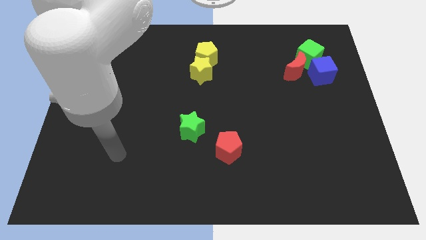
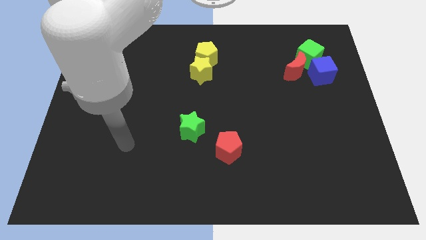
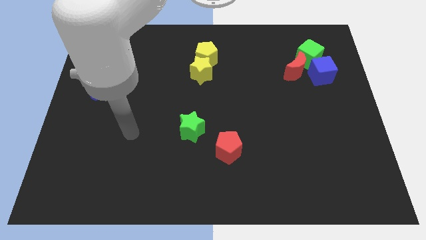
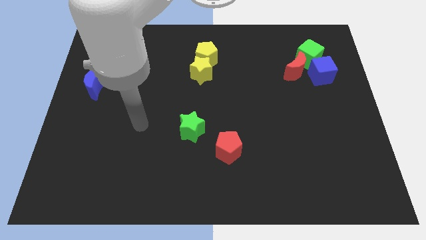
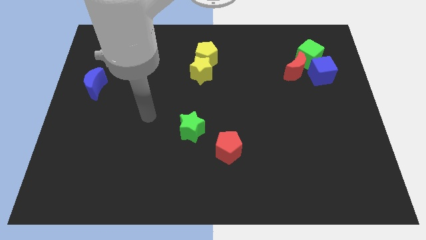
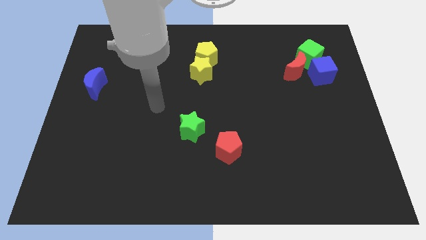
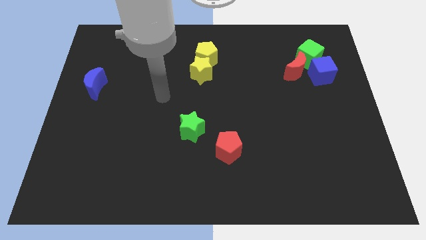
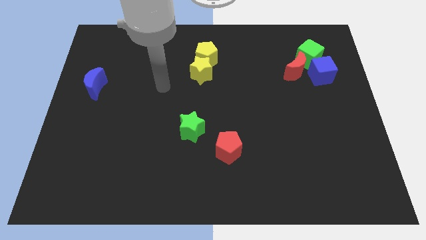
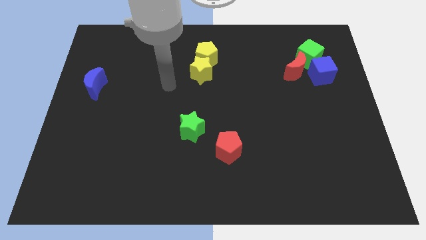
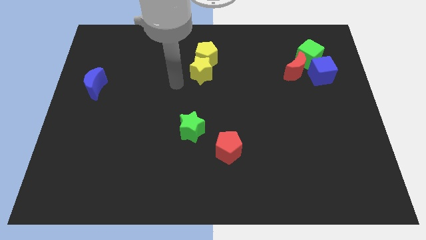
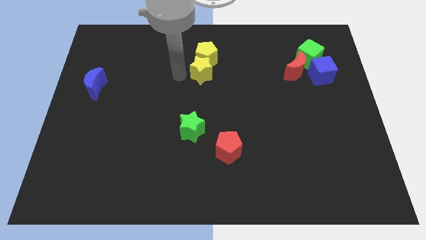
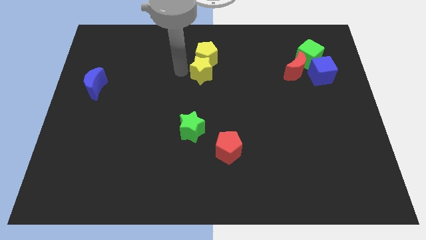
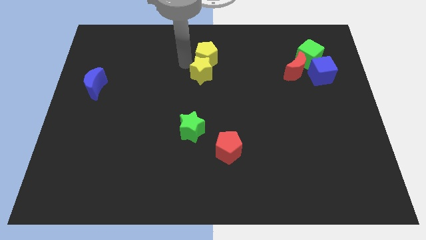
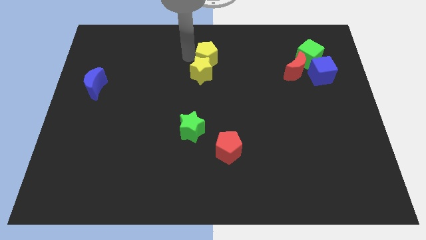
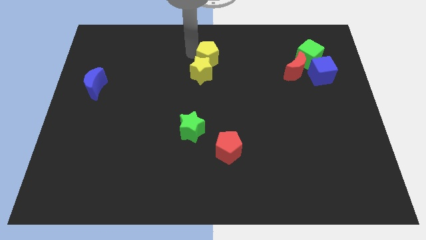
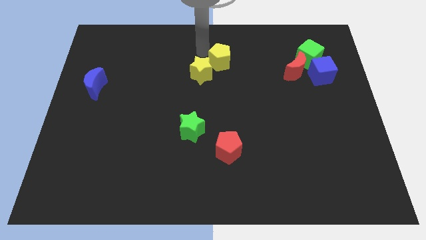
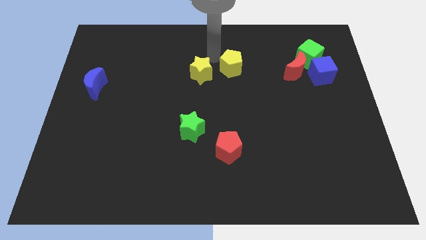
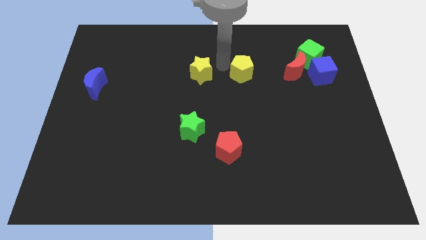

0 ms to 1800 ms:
separate the yellow star from the yellow pentagon

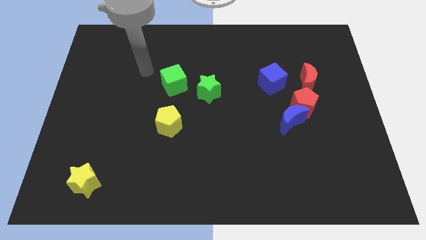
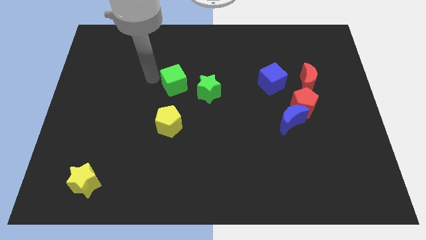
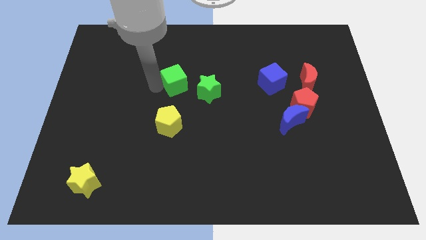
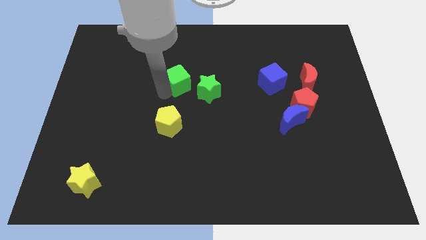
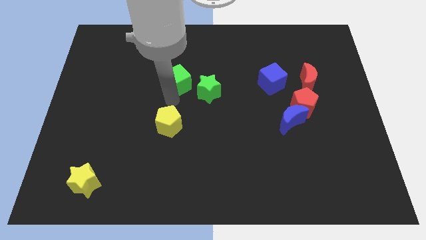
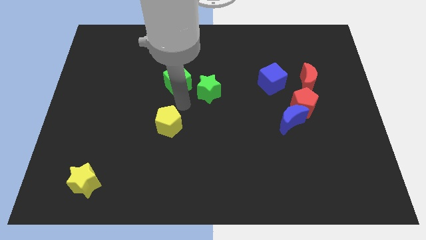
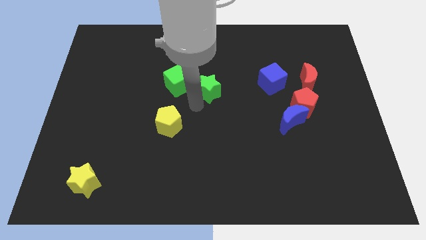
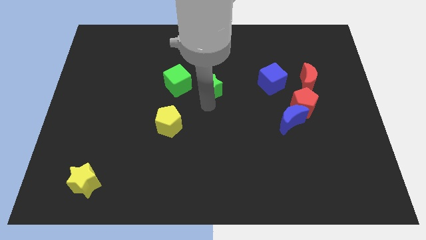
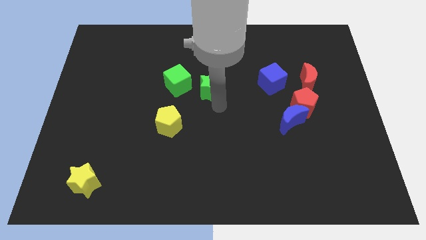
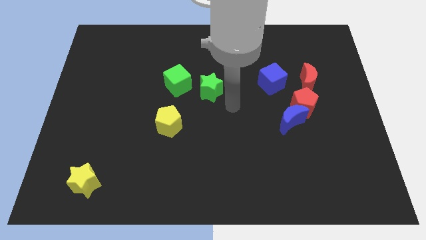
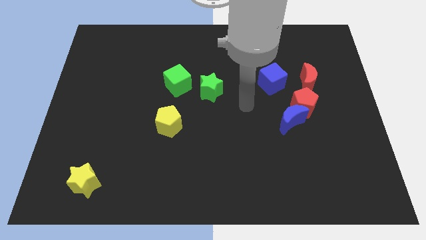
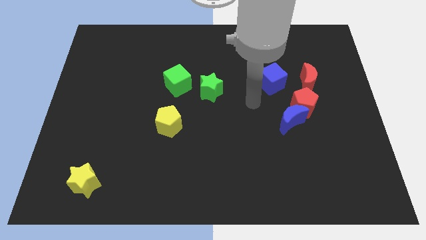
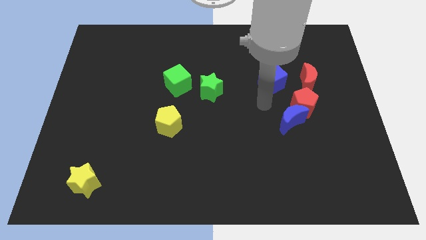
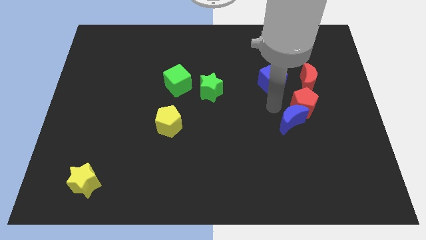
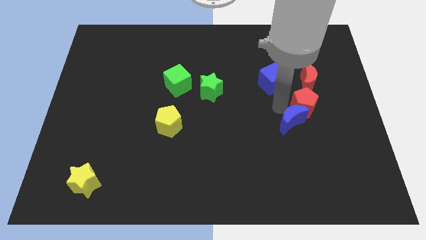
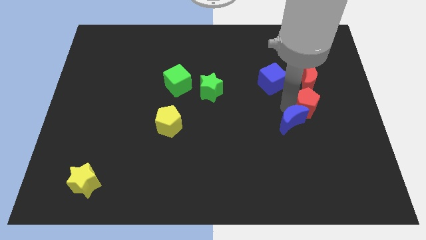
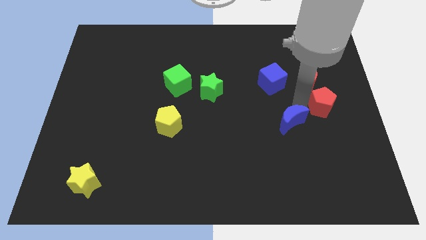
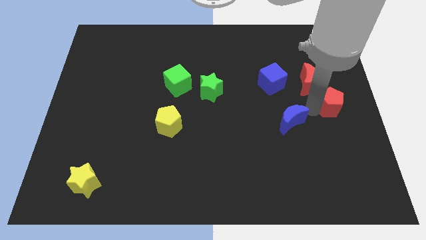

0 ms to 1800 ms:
move the blue moon away from the red pentagon

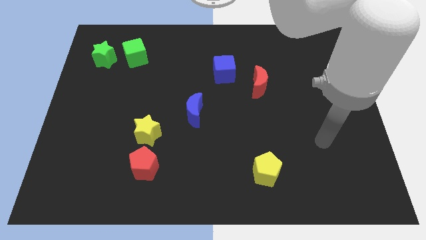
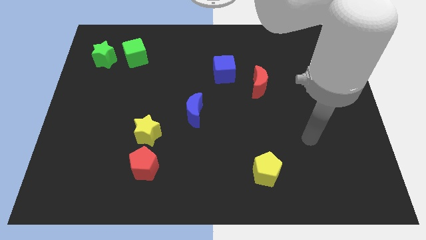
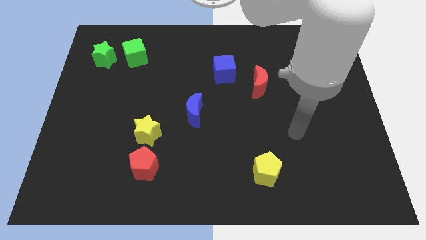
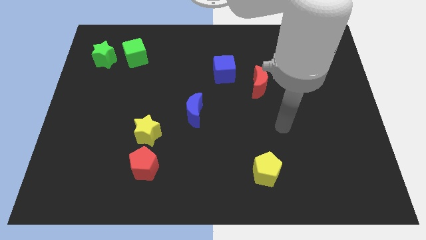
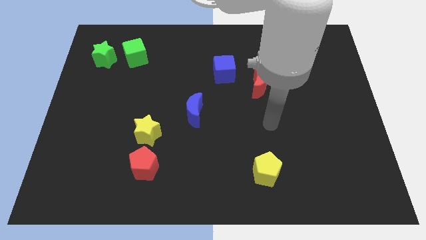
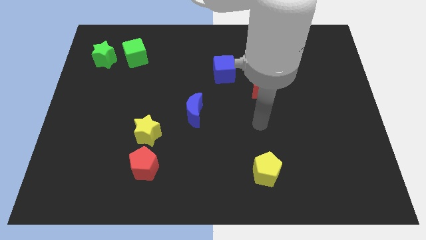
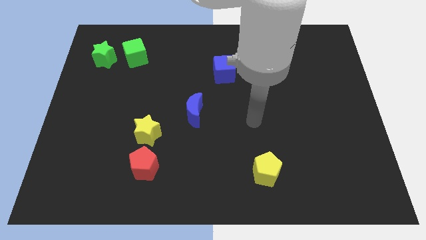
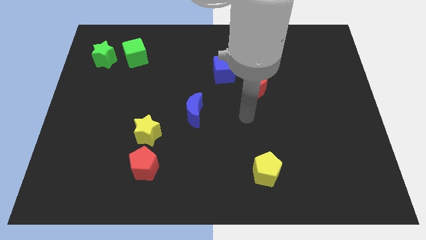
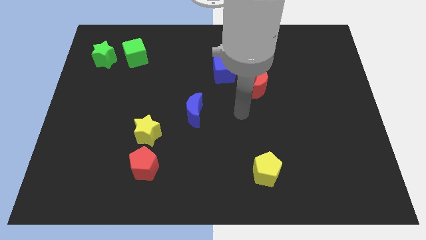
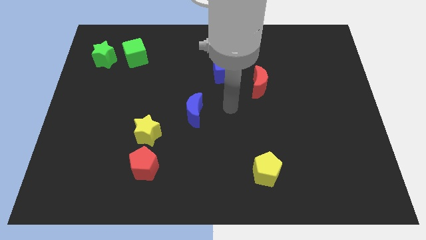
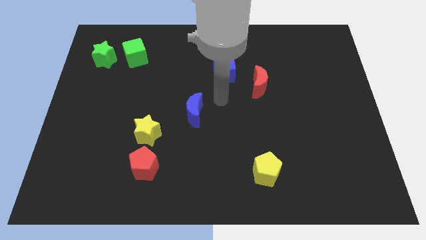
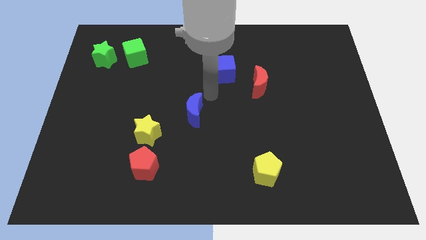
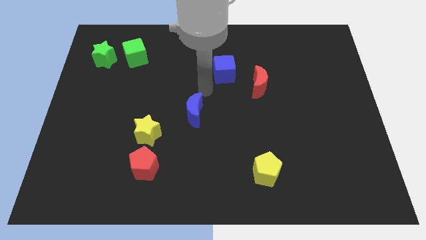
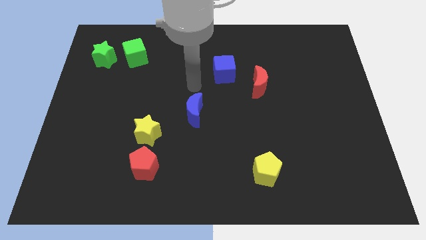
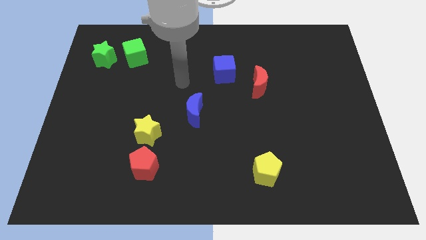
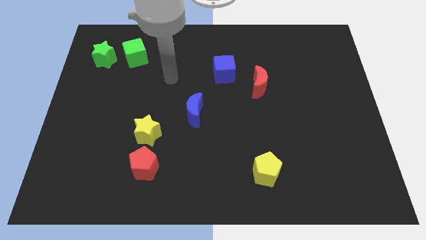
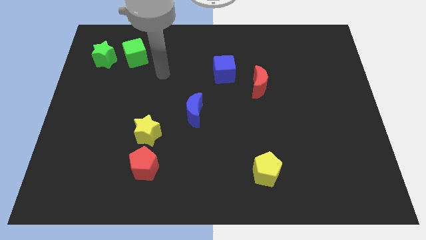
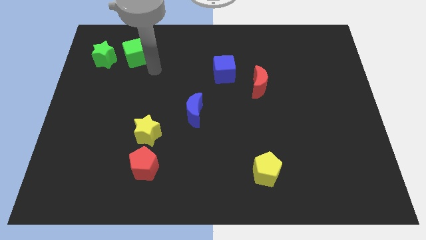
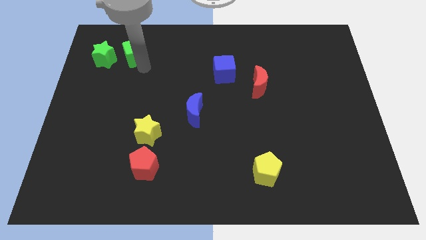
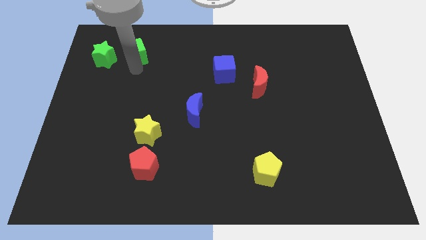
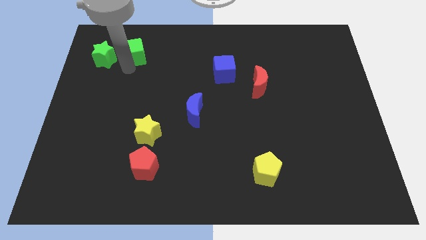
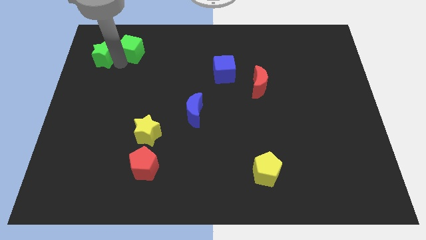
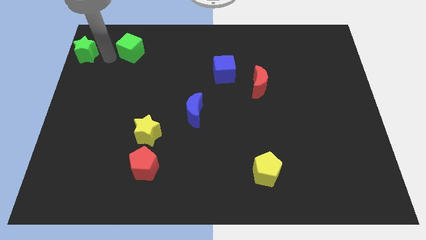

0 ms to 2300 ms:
separate the green cube from the green star

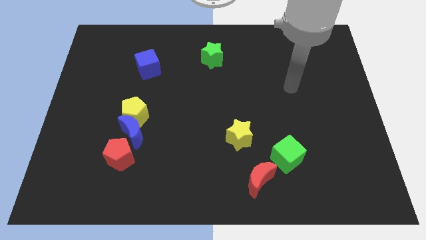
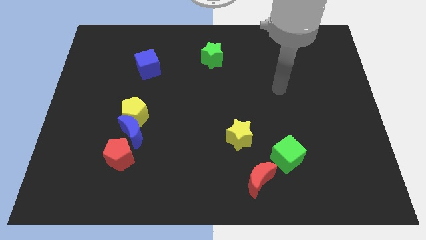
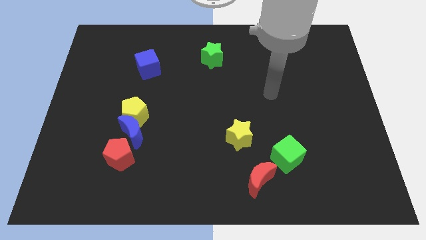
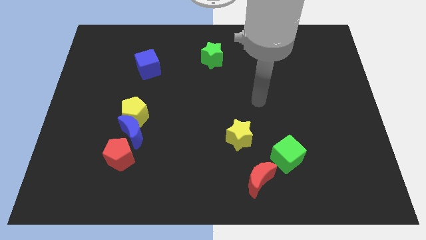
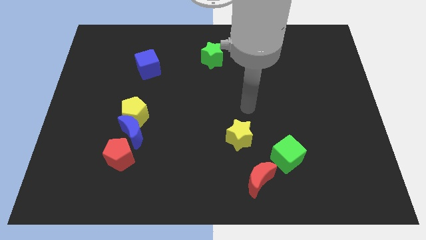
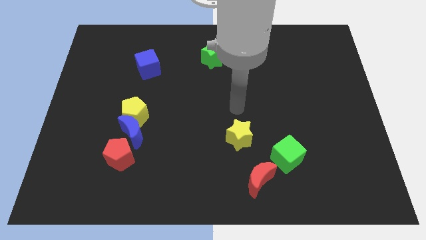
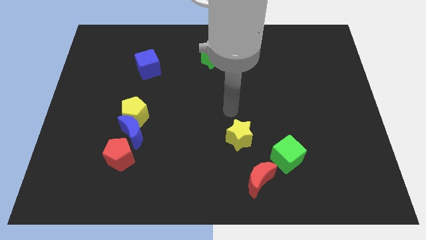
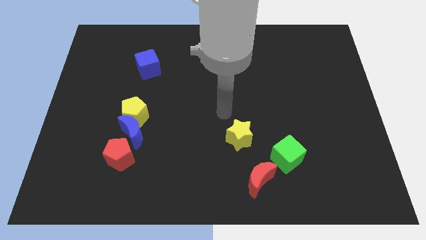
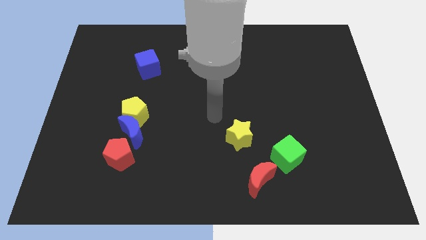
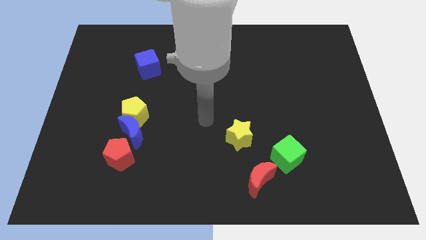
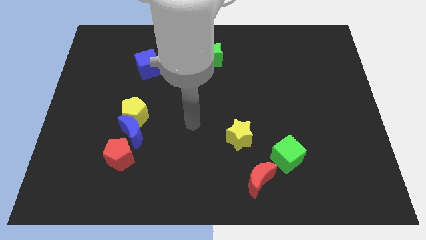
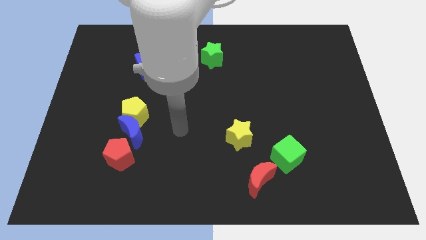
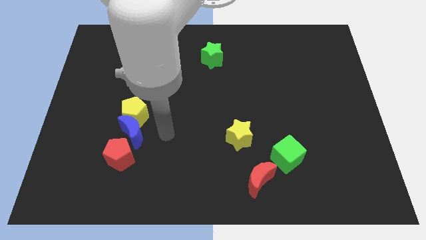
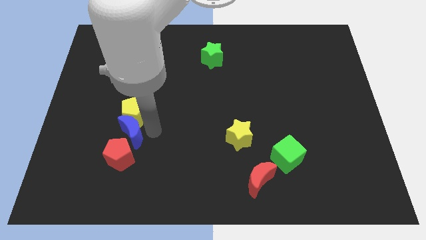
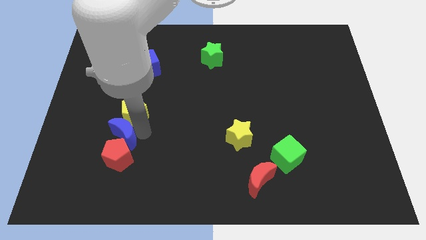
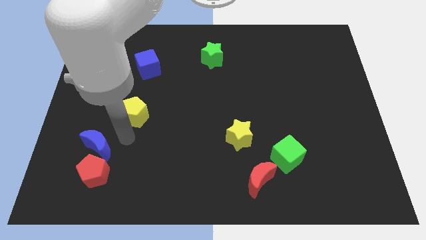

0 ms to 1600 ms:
pull the yellow pentagon apart from the blue moon

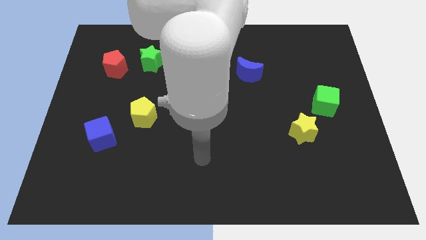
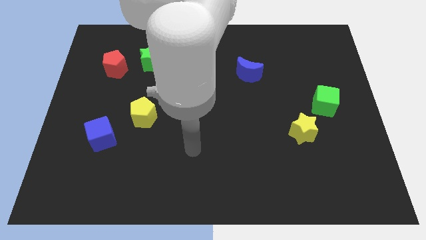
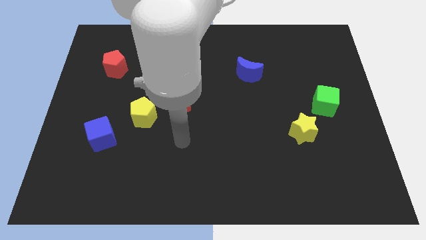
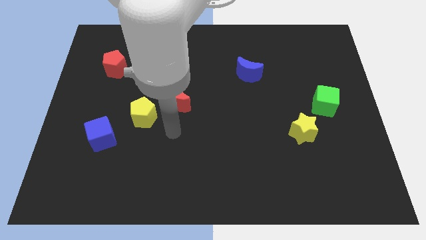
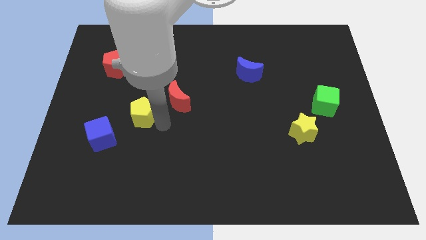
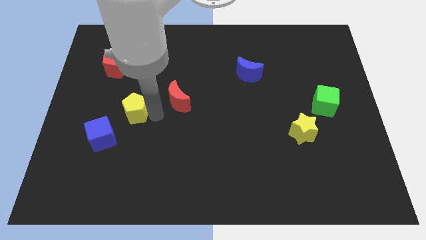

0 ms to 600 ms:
move the red moon away from the yellow pentagon

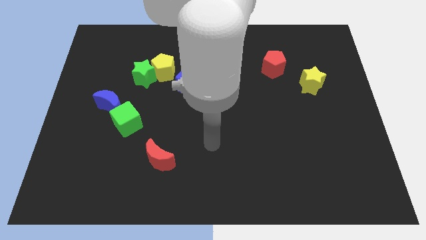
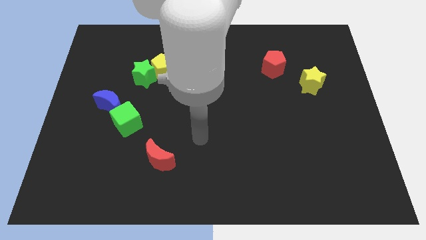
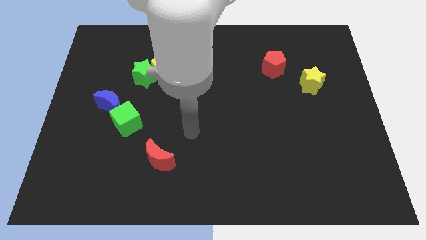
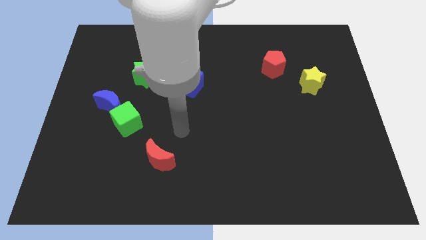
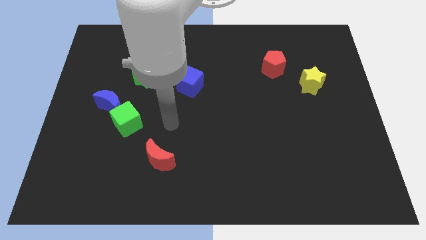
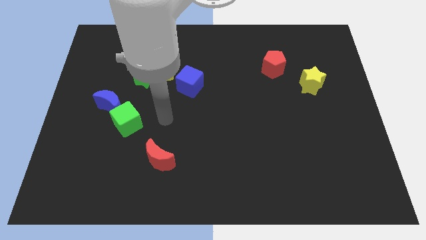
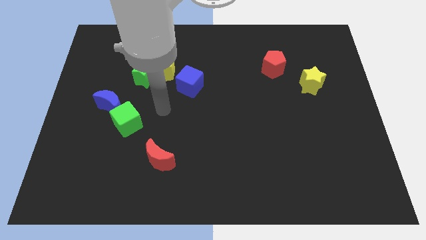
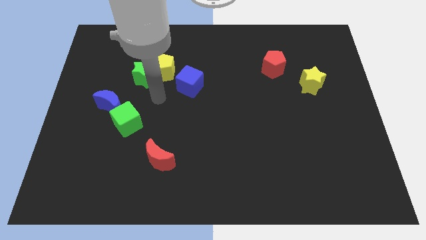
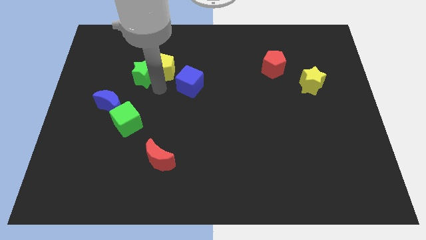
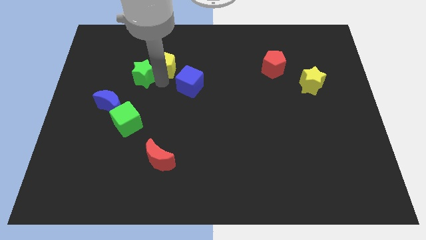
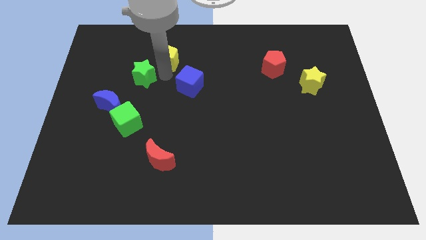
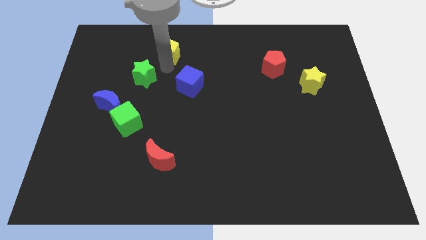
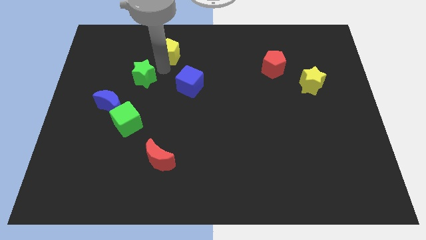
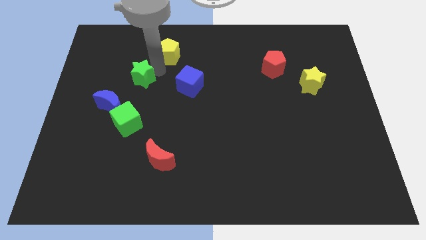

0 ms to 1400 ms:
pull the green star apart from the yellow pentagon
